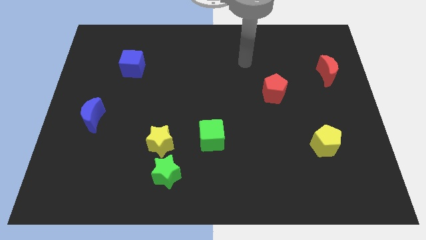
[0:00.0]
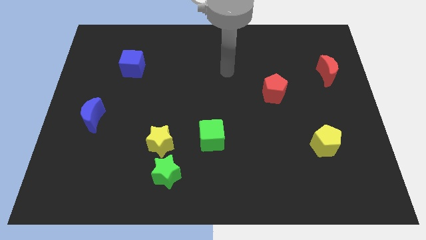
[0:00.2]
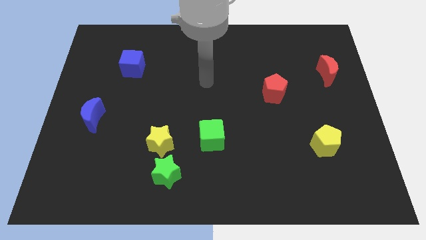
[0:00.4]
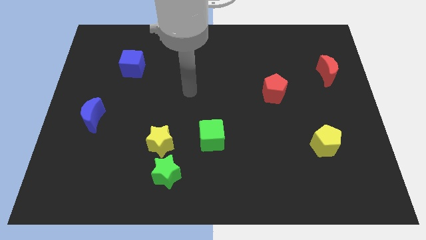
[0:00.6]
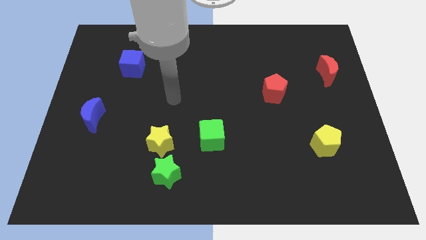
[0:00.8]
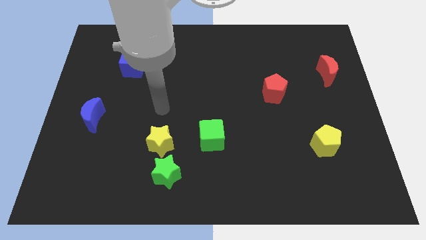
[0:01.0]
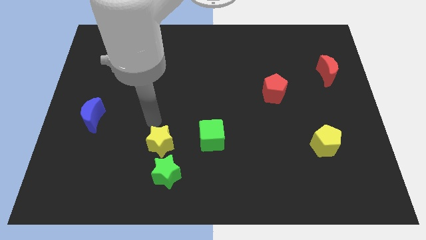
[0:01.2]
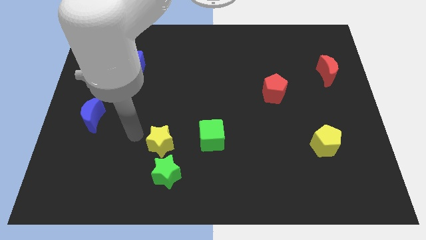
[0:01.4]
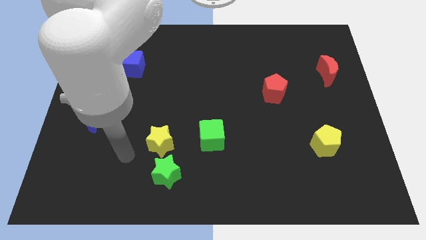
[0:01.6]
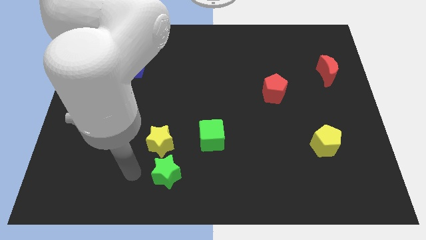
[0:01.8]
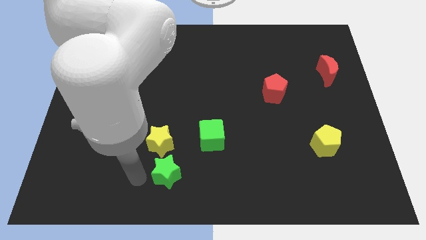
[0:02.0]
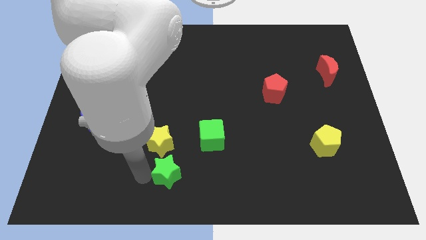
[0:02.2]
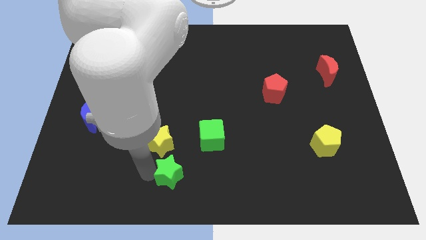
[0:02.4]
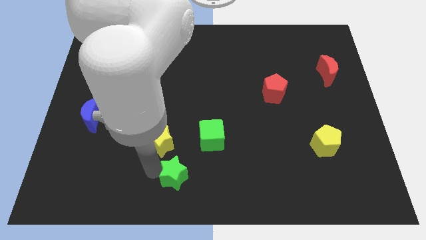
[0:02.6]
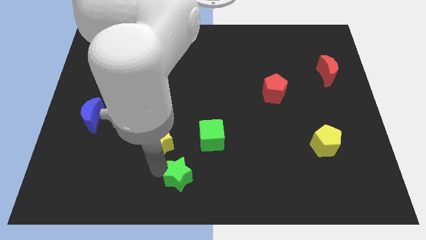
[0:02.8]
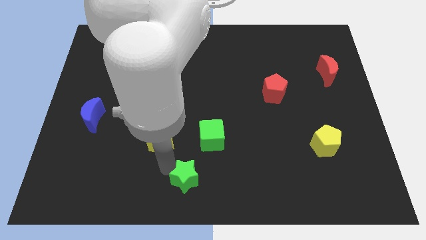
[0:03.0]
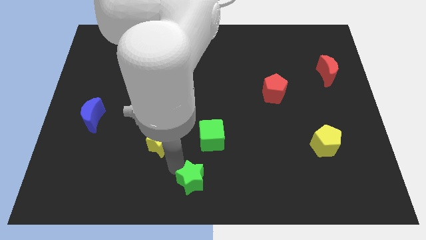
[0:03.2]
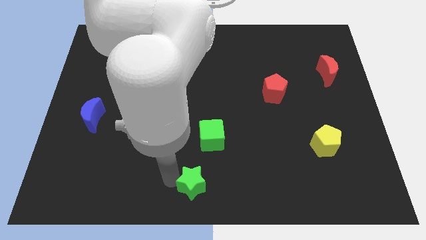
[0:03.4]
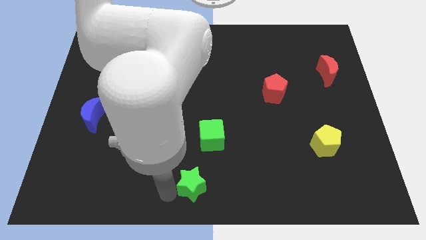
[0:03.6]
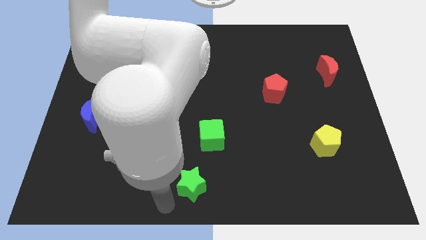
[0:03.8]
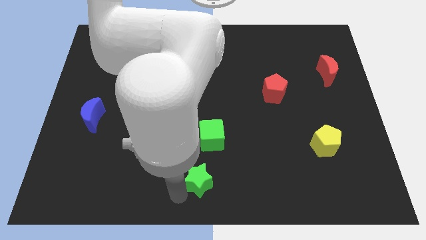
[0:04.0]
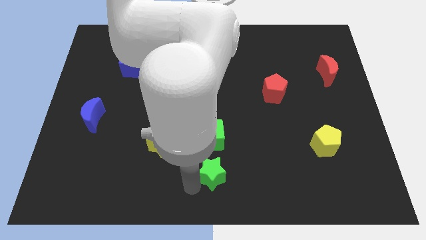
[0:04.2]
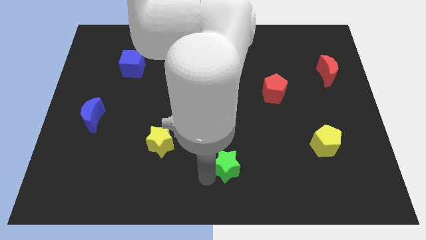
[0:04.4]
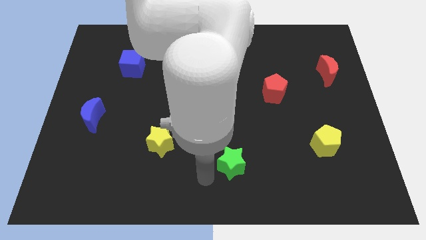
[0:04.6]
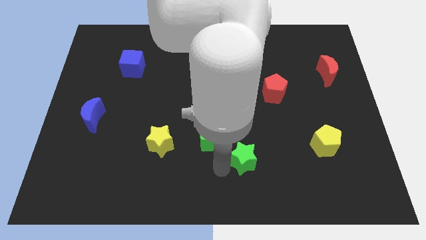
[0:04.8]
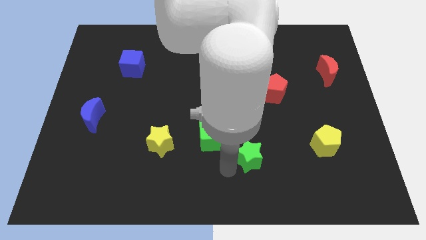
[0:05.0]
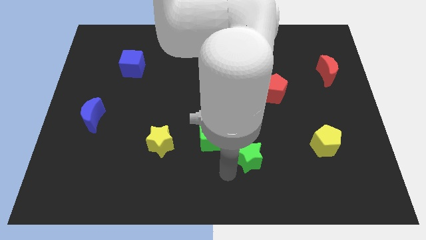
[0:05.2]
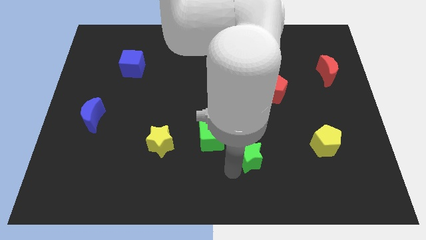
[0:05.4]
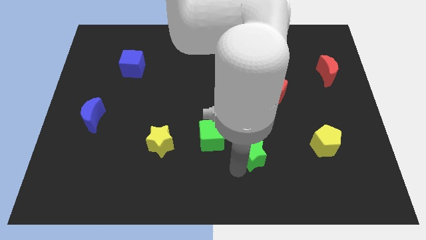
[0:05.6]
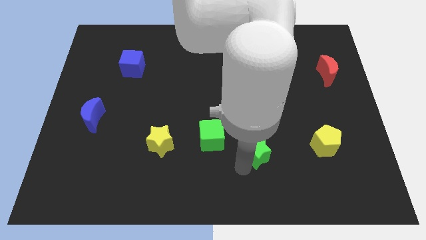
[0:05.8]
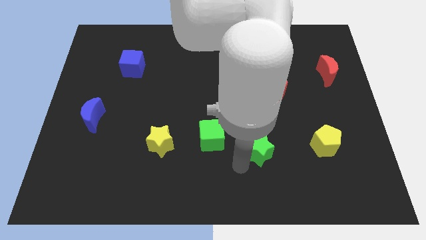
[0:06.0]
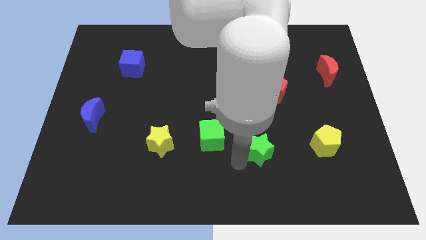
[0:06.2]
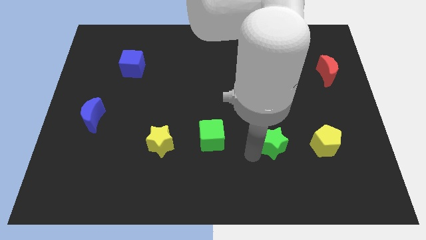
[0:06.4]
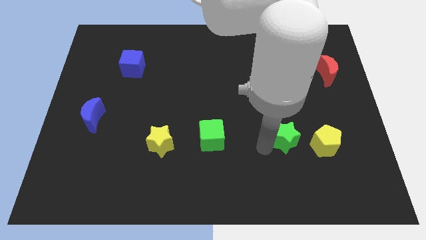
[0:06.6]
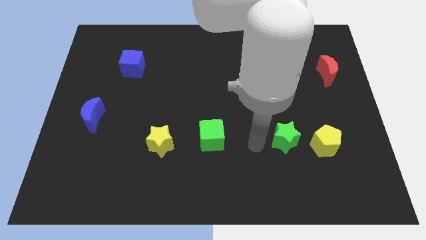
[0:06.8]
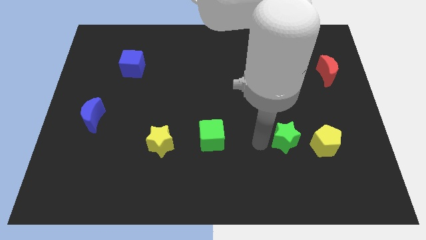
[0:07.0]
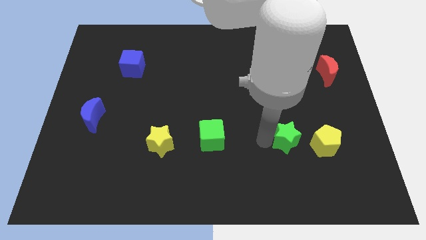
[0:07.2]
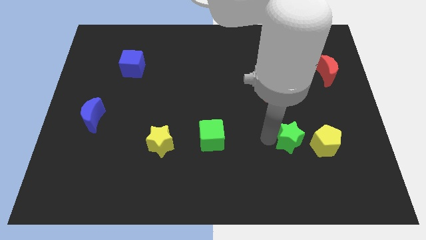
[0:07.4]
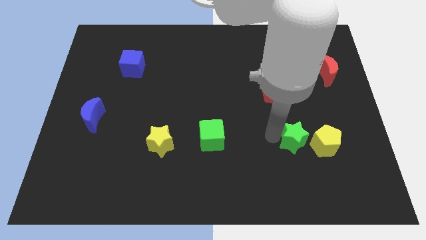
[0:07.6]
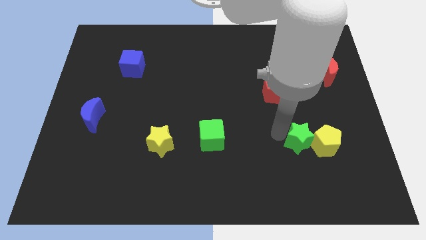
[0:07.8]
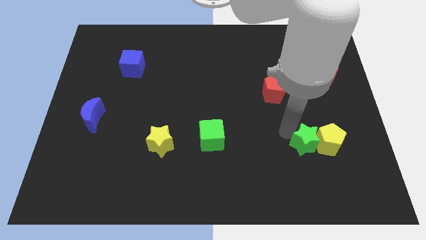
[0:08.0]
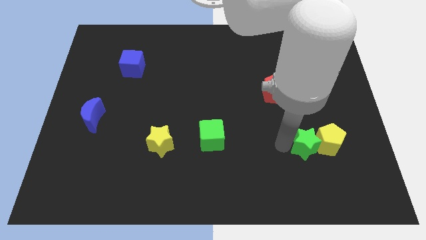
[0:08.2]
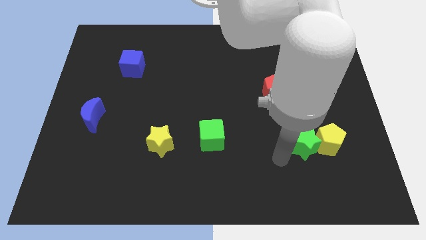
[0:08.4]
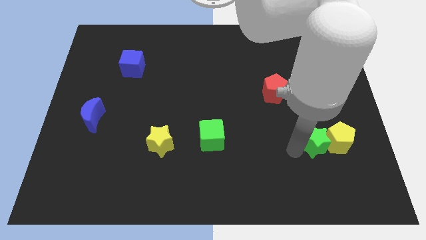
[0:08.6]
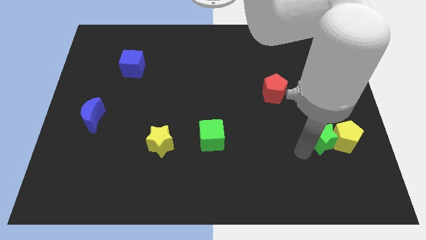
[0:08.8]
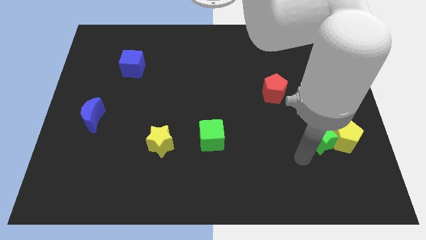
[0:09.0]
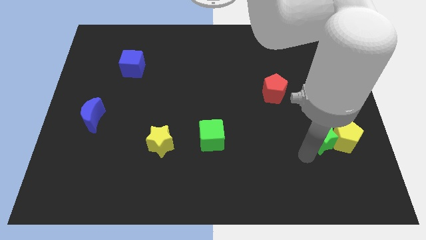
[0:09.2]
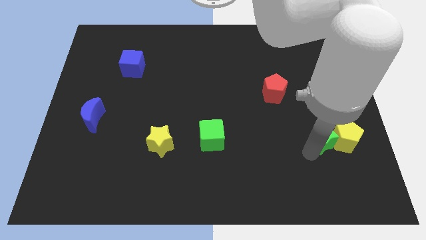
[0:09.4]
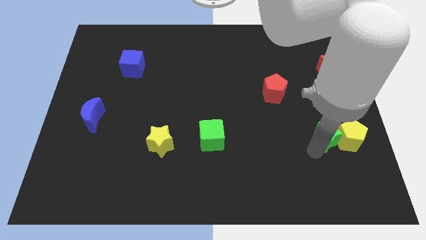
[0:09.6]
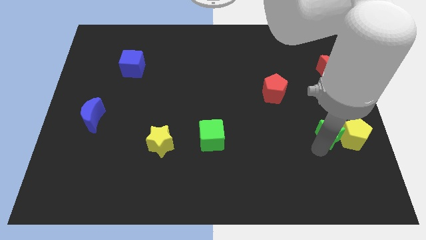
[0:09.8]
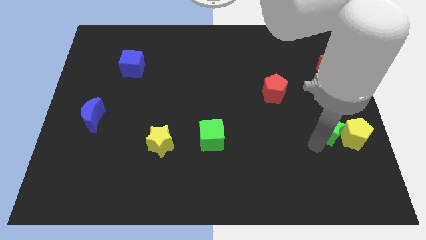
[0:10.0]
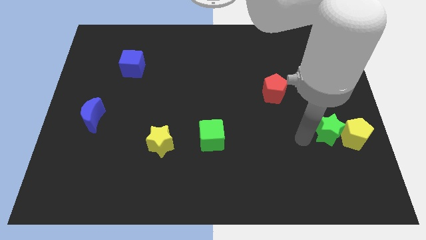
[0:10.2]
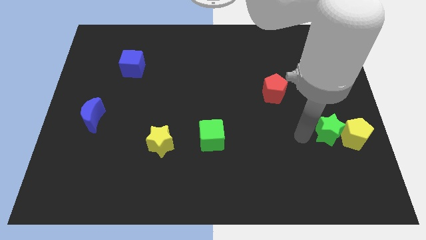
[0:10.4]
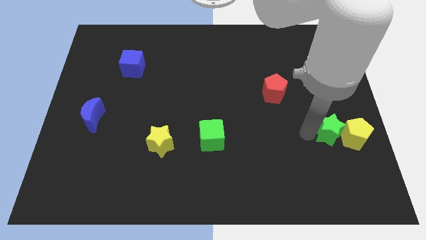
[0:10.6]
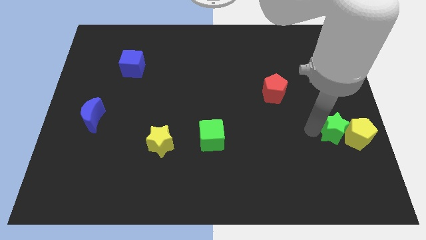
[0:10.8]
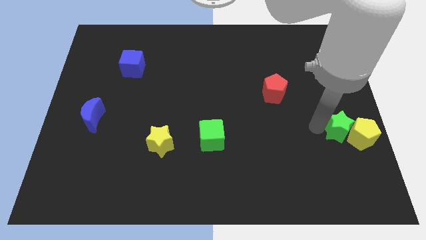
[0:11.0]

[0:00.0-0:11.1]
slide the green star to the right side of the board

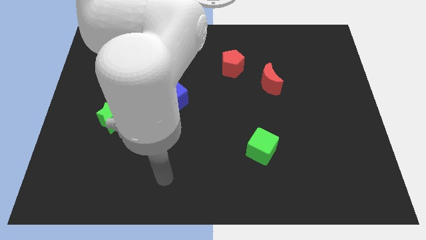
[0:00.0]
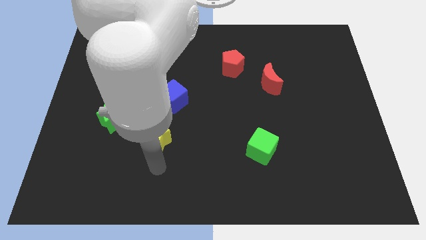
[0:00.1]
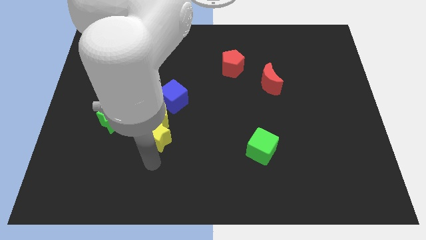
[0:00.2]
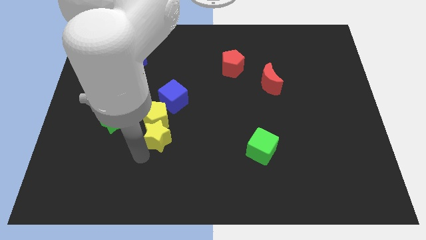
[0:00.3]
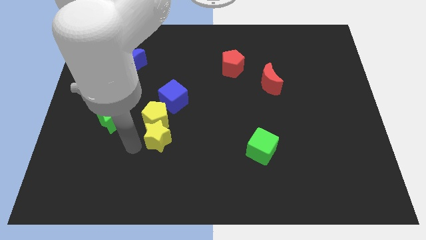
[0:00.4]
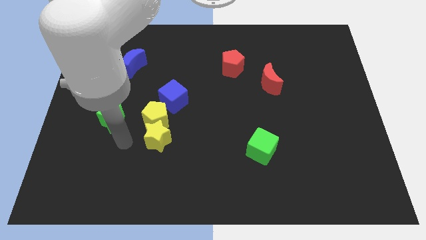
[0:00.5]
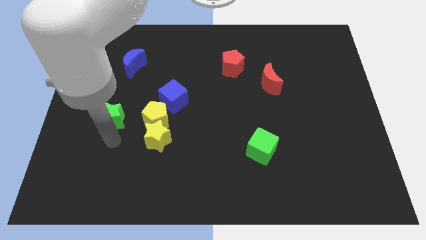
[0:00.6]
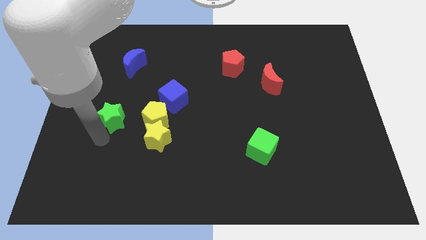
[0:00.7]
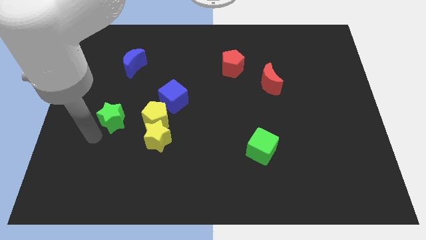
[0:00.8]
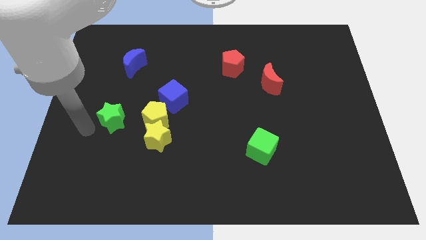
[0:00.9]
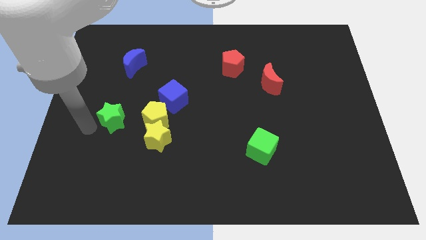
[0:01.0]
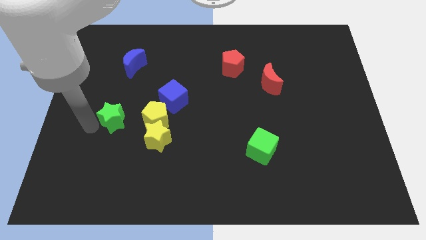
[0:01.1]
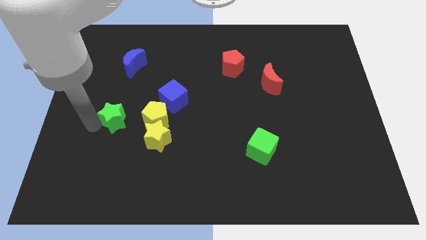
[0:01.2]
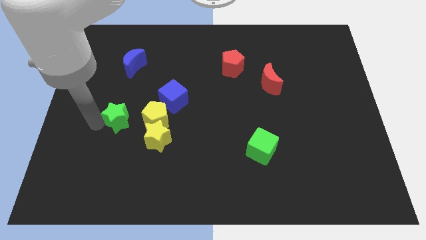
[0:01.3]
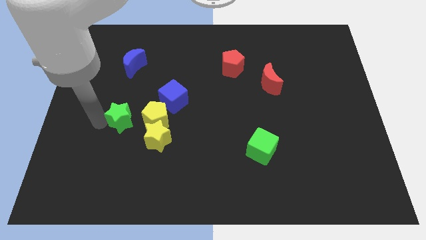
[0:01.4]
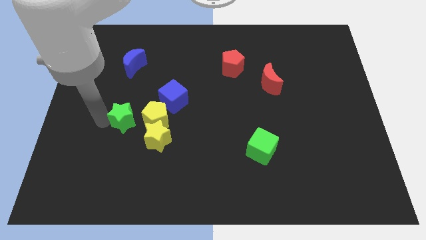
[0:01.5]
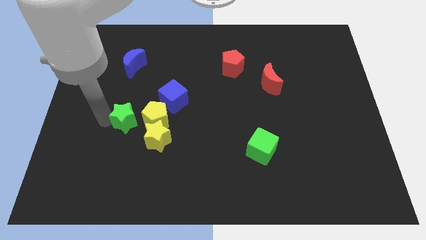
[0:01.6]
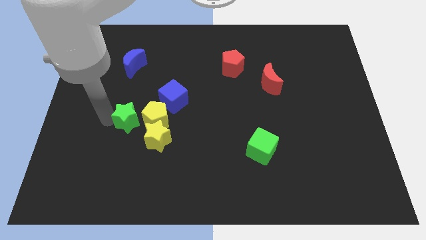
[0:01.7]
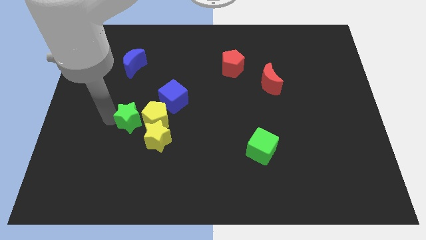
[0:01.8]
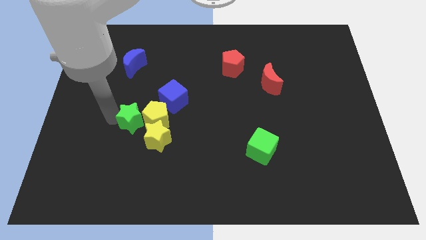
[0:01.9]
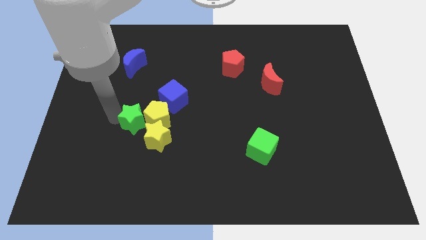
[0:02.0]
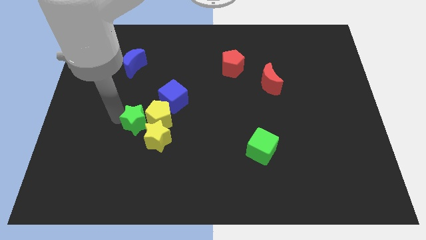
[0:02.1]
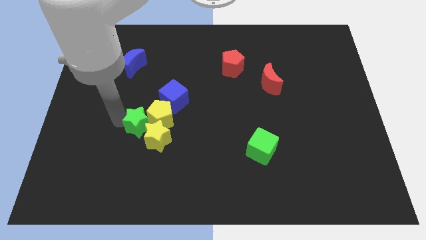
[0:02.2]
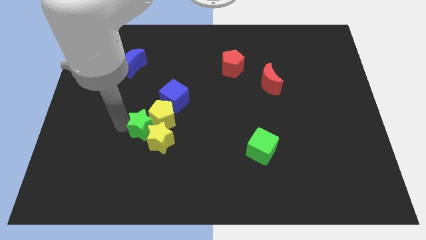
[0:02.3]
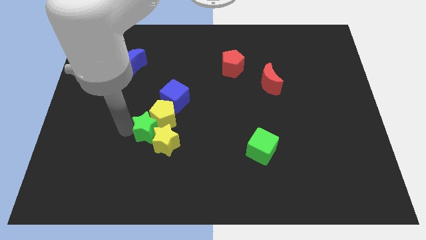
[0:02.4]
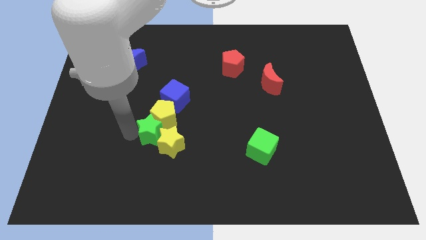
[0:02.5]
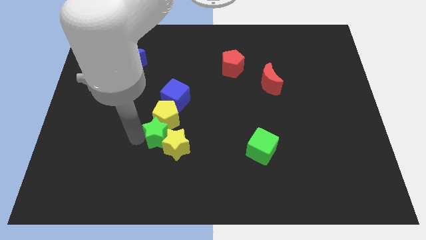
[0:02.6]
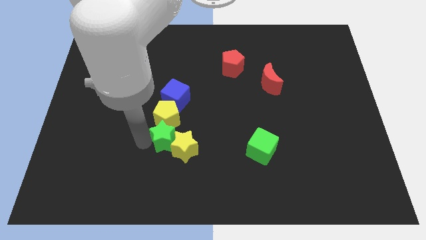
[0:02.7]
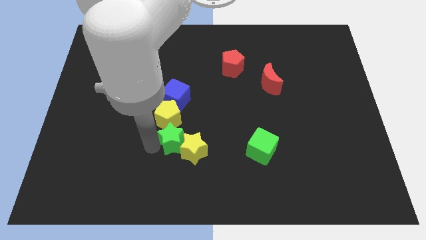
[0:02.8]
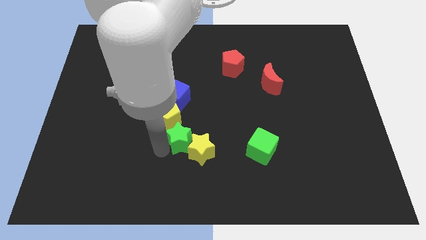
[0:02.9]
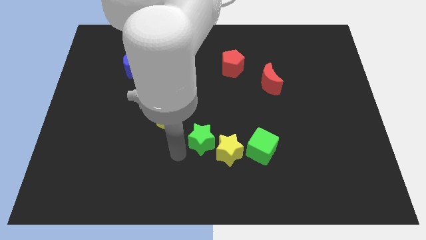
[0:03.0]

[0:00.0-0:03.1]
slide the green star to the middle of the board
